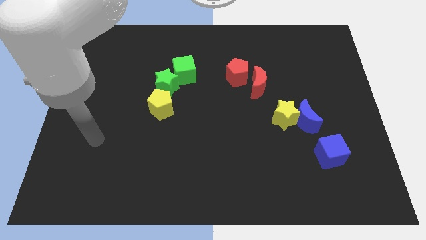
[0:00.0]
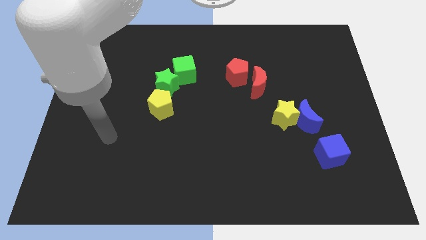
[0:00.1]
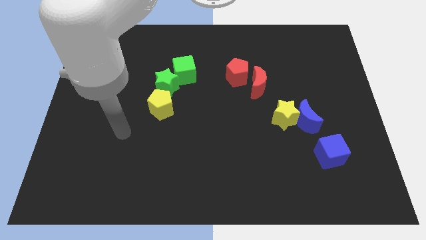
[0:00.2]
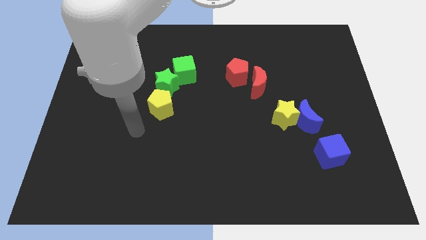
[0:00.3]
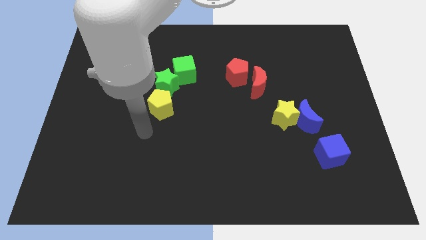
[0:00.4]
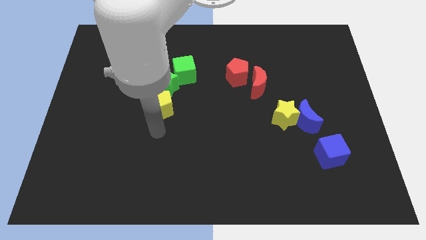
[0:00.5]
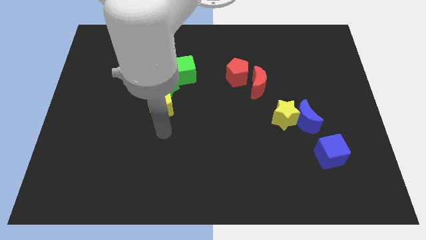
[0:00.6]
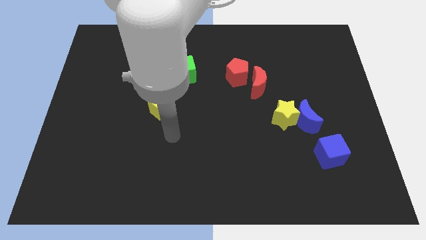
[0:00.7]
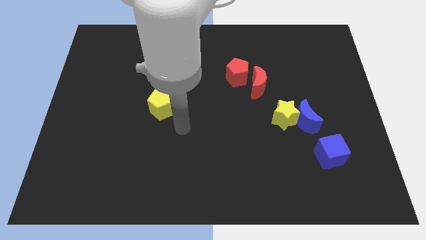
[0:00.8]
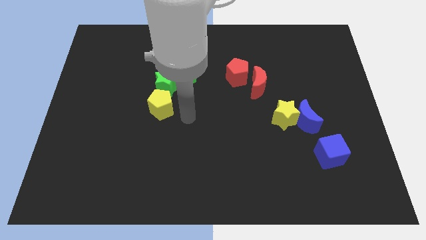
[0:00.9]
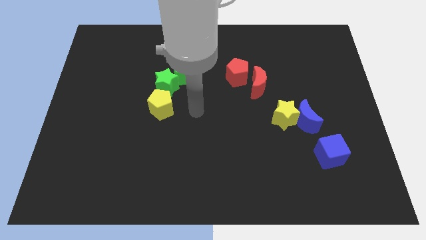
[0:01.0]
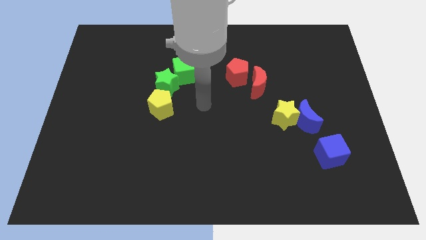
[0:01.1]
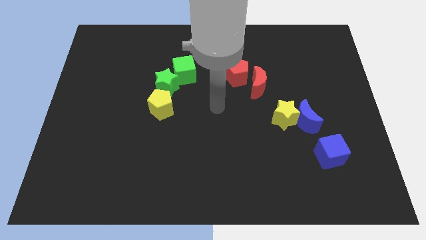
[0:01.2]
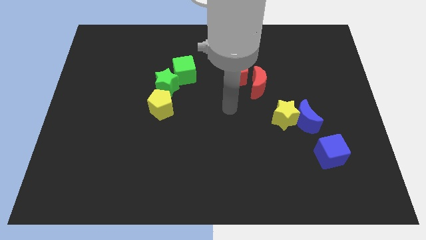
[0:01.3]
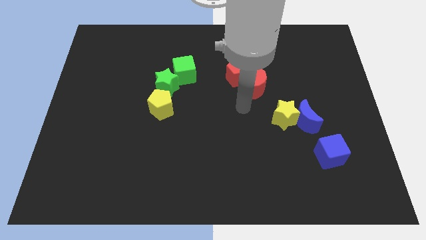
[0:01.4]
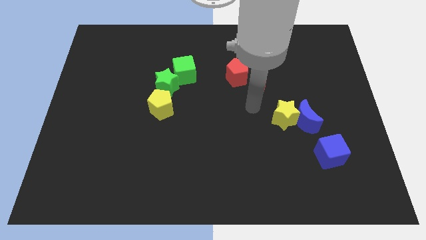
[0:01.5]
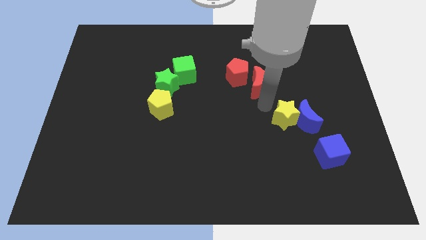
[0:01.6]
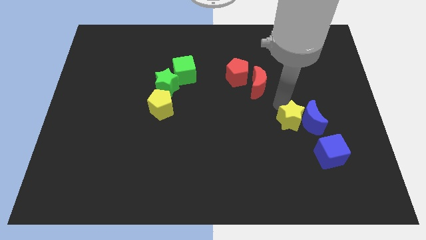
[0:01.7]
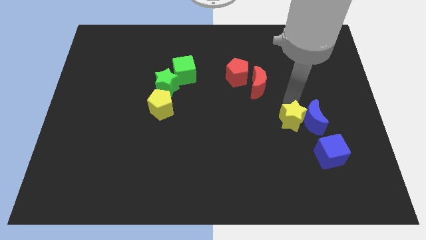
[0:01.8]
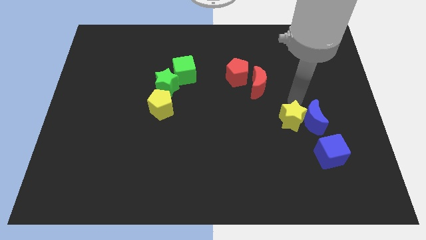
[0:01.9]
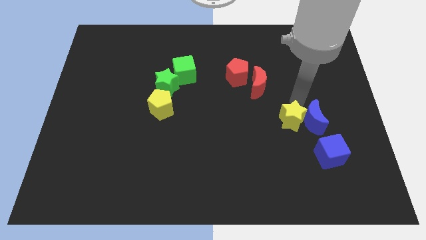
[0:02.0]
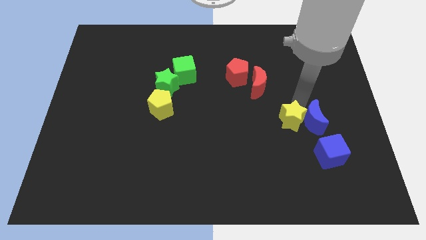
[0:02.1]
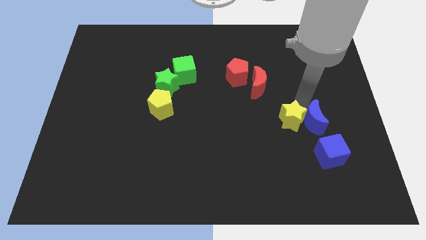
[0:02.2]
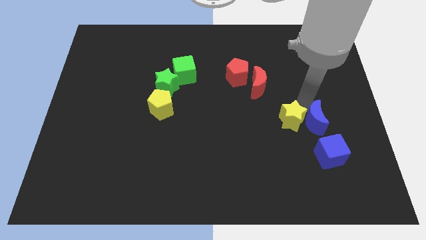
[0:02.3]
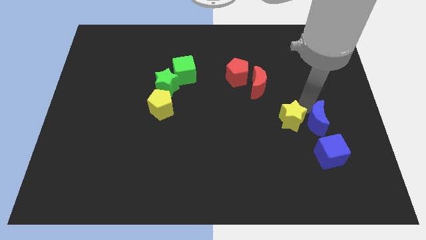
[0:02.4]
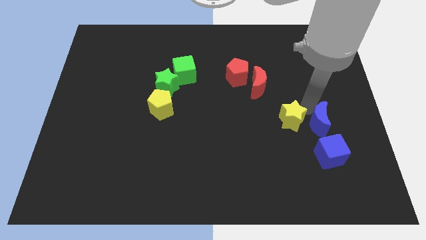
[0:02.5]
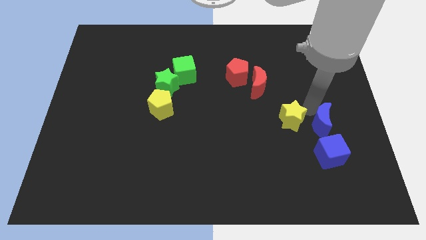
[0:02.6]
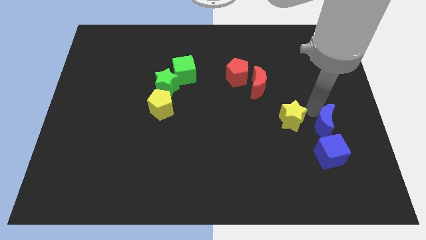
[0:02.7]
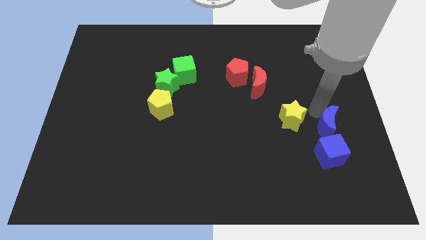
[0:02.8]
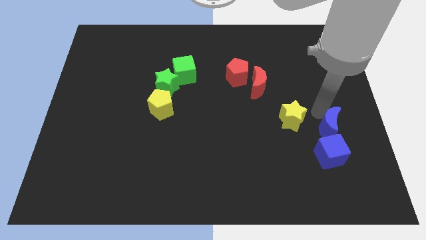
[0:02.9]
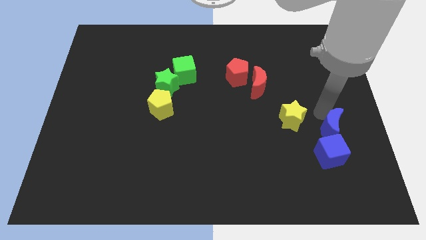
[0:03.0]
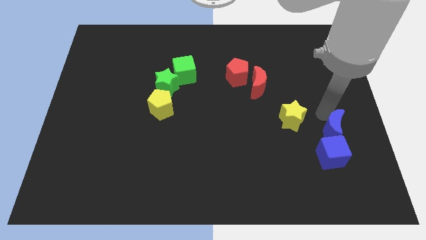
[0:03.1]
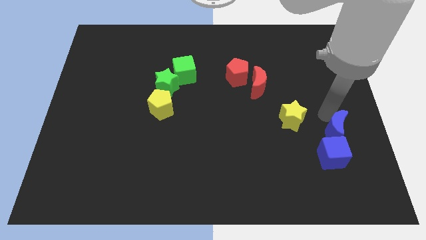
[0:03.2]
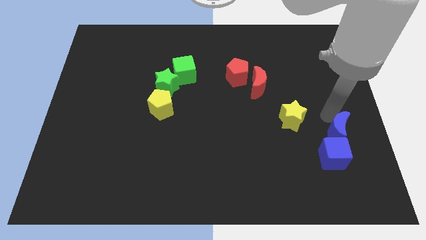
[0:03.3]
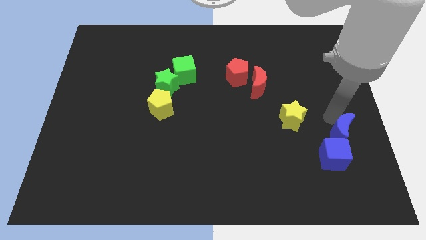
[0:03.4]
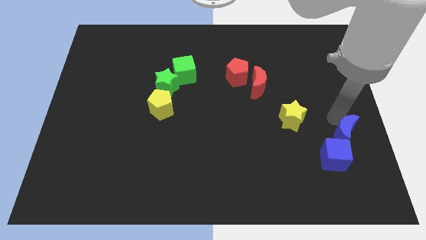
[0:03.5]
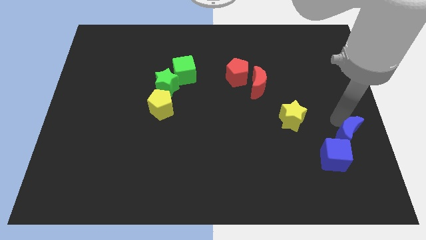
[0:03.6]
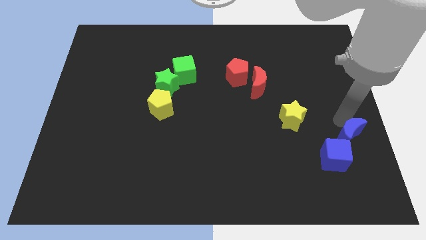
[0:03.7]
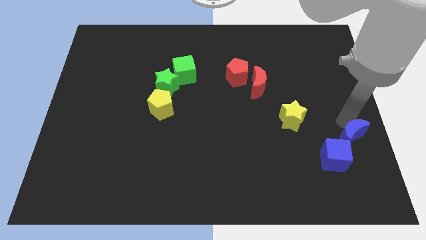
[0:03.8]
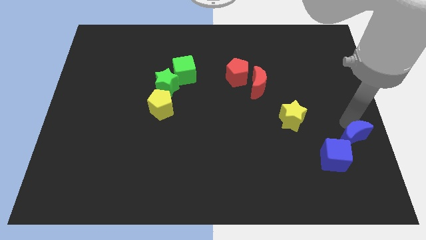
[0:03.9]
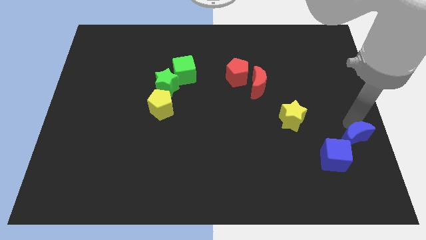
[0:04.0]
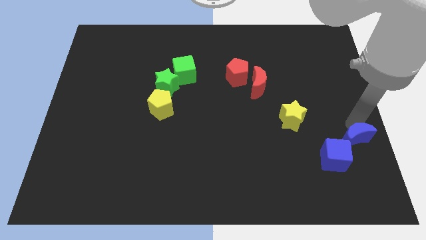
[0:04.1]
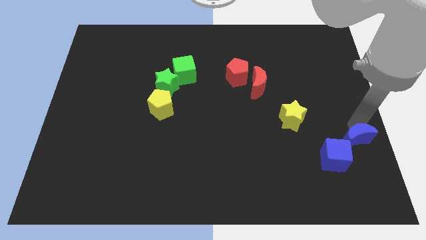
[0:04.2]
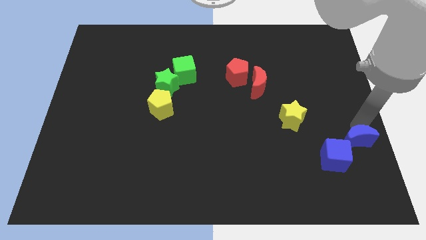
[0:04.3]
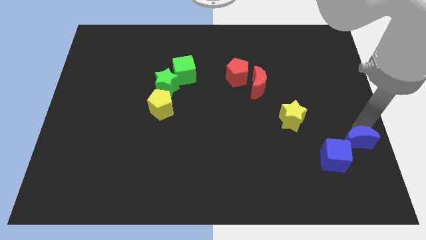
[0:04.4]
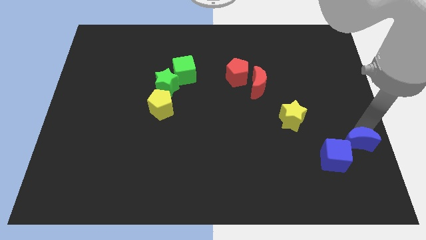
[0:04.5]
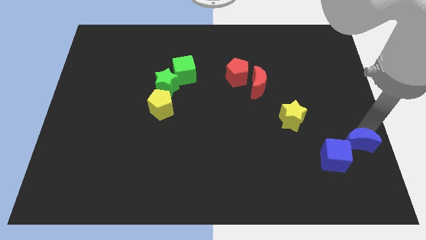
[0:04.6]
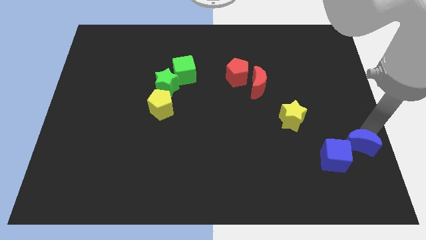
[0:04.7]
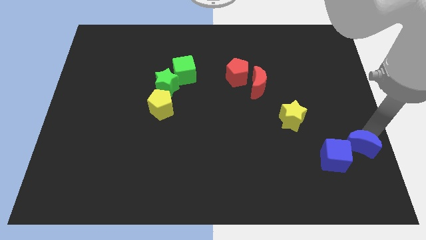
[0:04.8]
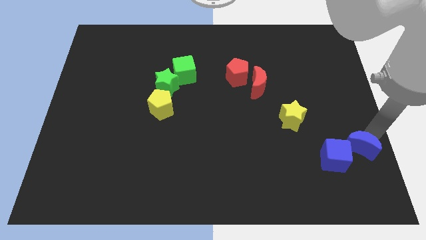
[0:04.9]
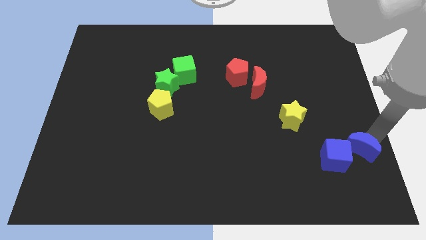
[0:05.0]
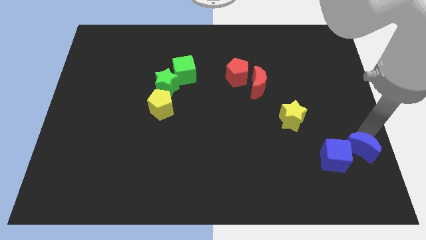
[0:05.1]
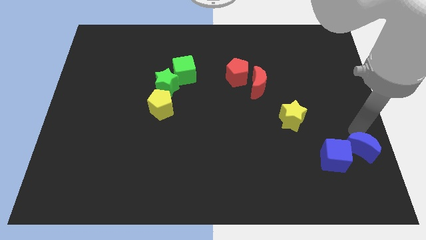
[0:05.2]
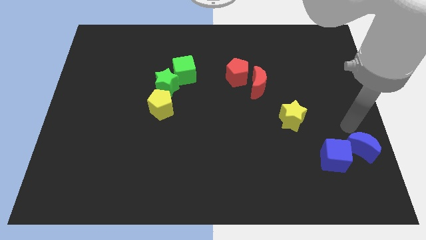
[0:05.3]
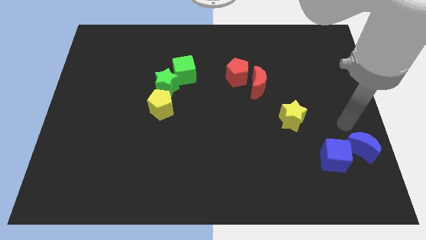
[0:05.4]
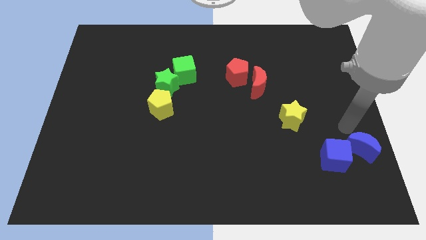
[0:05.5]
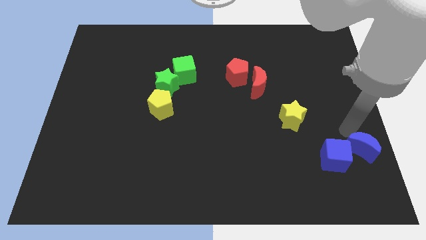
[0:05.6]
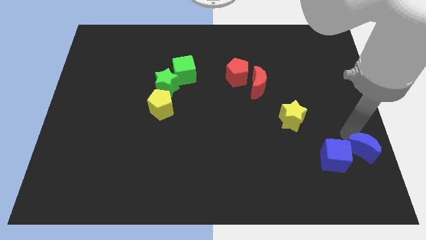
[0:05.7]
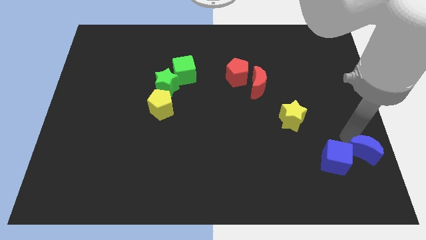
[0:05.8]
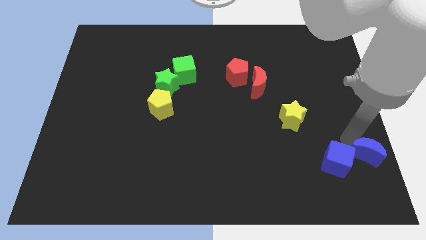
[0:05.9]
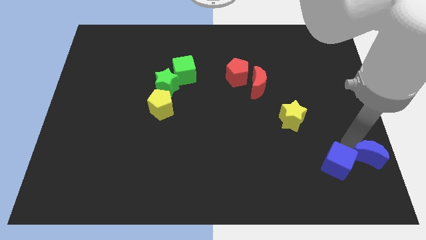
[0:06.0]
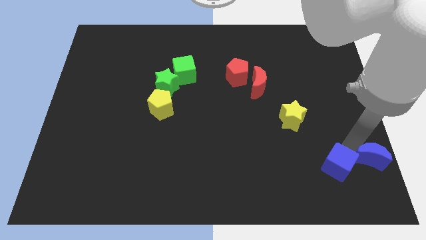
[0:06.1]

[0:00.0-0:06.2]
move the blue moon to the bottom right
